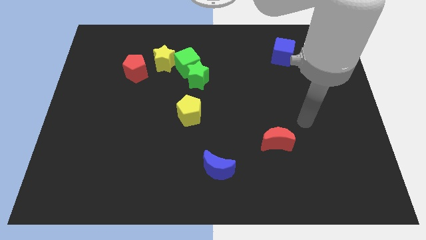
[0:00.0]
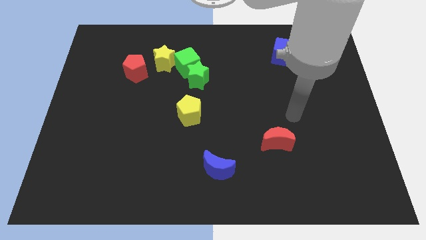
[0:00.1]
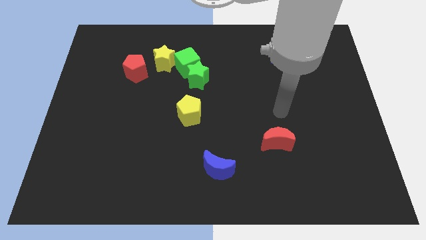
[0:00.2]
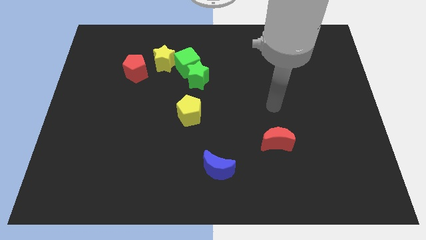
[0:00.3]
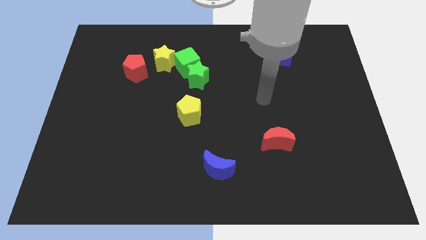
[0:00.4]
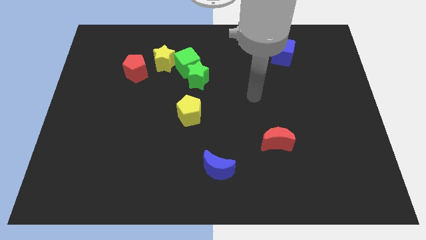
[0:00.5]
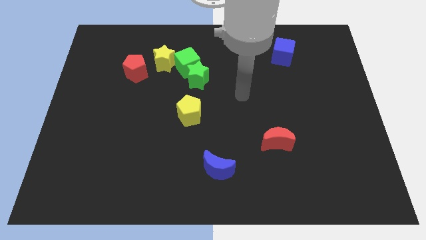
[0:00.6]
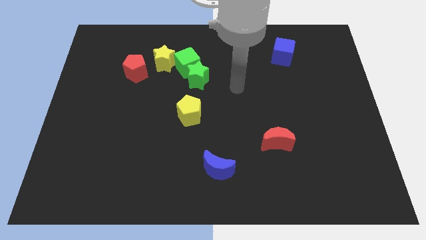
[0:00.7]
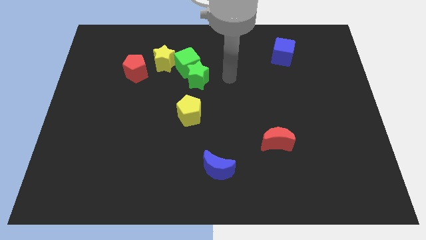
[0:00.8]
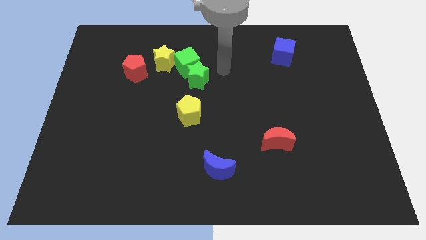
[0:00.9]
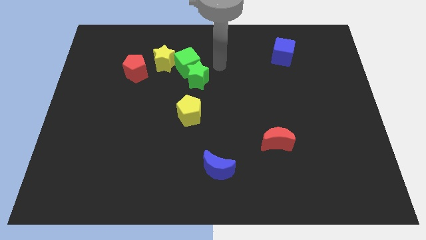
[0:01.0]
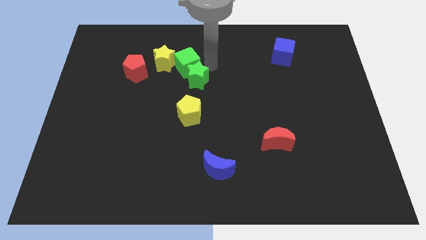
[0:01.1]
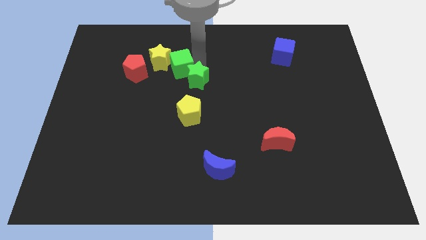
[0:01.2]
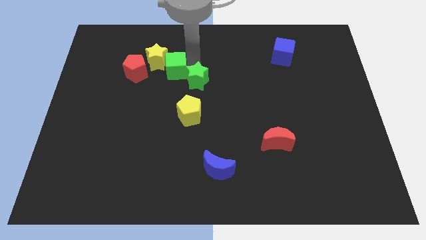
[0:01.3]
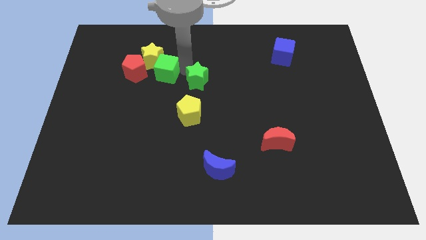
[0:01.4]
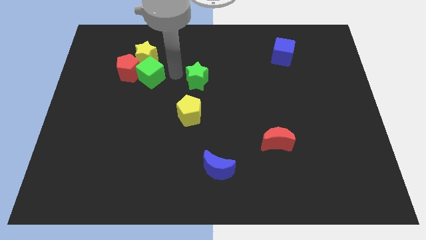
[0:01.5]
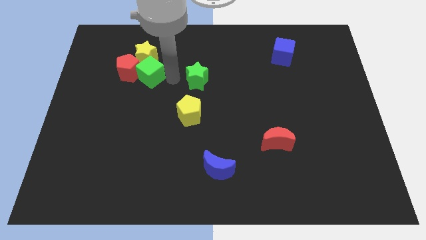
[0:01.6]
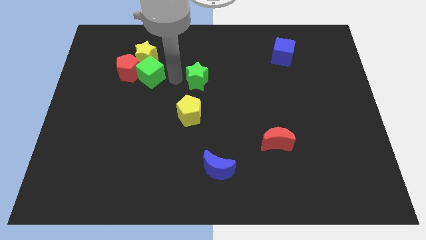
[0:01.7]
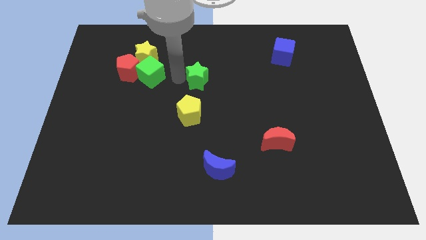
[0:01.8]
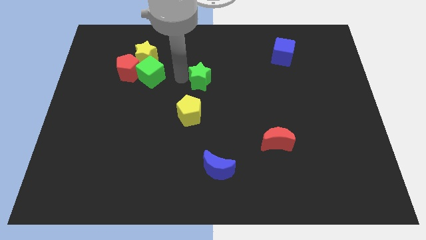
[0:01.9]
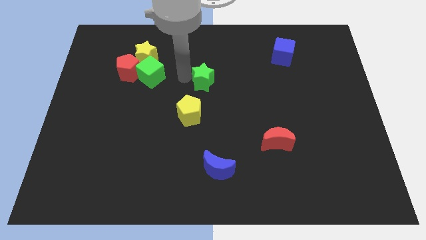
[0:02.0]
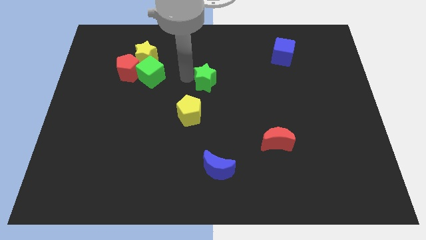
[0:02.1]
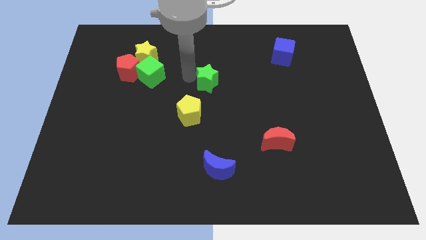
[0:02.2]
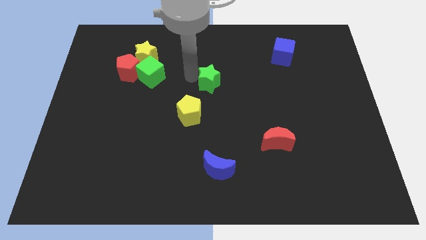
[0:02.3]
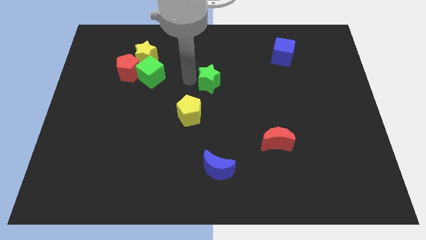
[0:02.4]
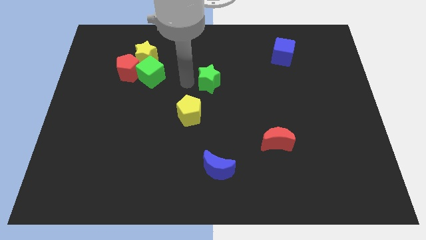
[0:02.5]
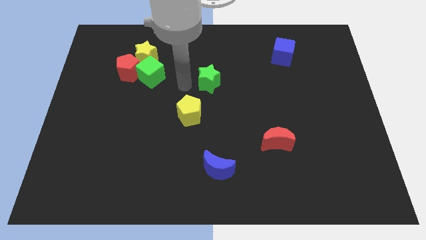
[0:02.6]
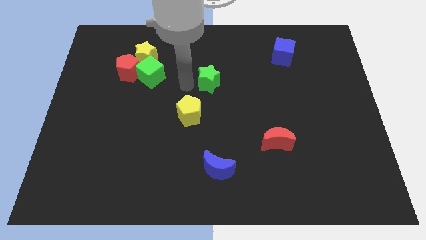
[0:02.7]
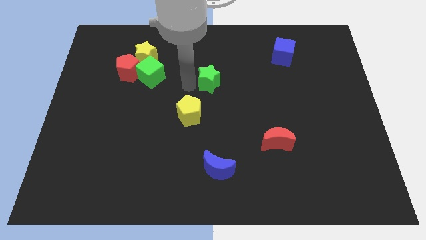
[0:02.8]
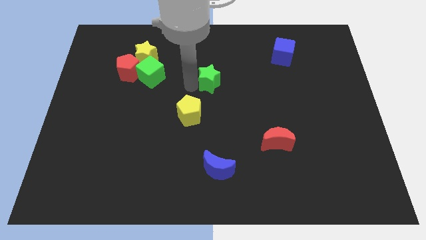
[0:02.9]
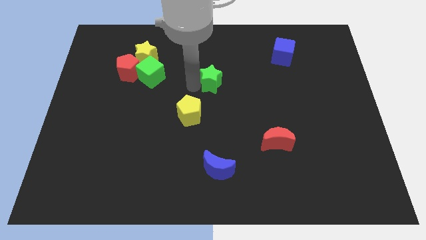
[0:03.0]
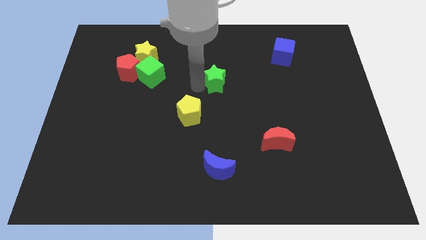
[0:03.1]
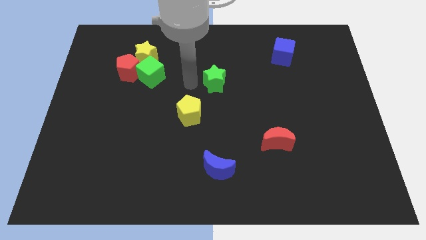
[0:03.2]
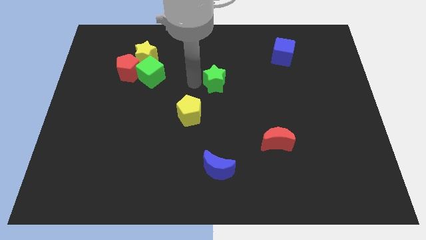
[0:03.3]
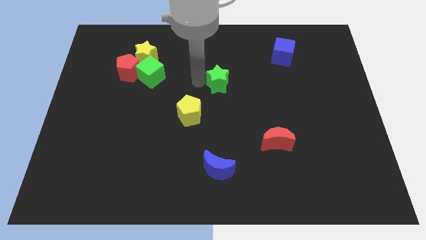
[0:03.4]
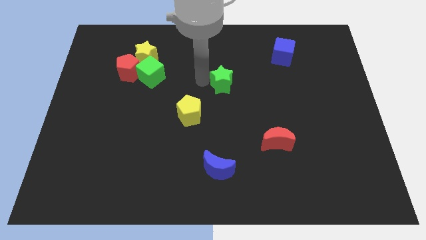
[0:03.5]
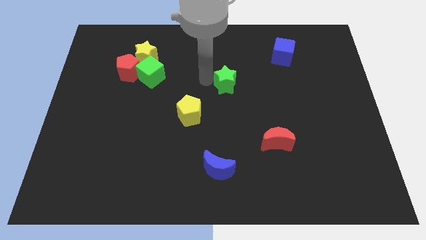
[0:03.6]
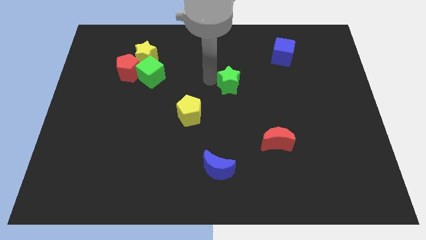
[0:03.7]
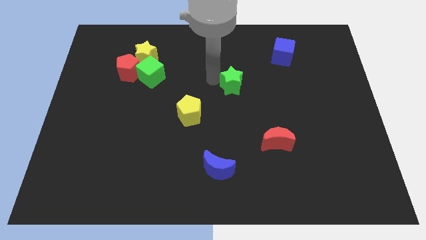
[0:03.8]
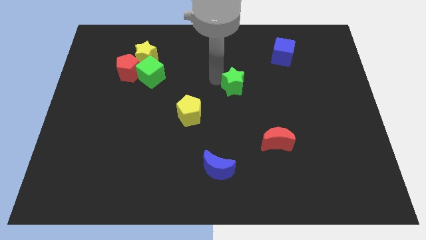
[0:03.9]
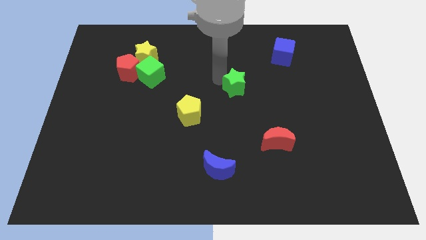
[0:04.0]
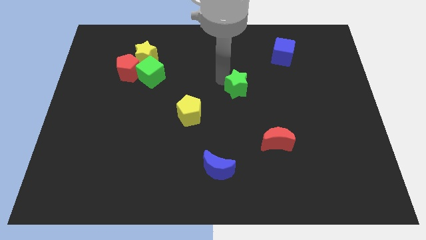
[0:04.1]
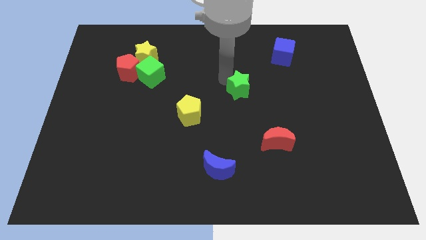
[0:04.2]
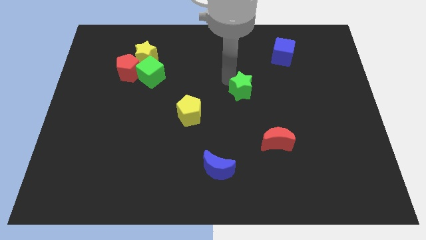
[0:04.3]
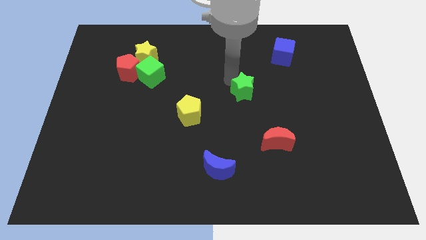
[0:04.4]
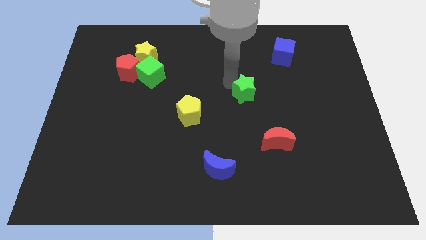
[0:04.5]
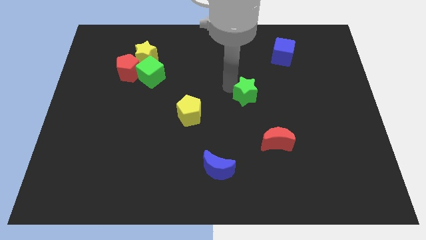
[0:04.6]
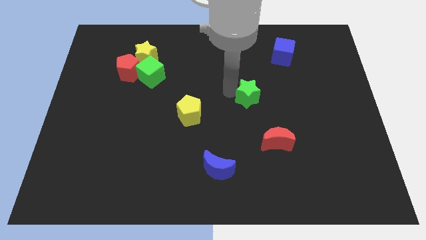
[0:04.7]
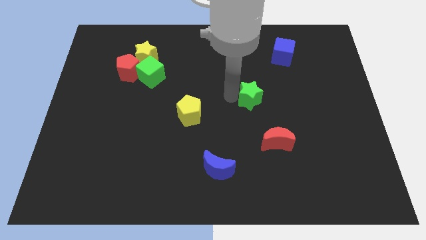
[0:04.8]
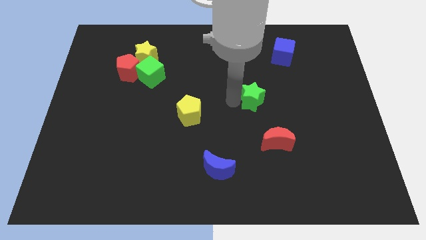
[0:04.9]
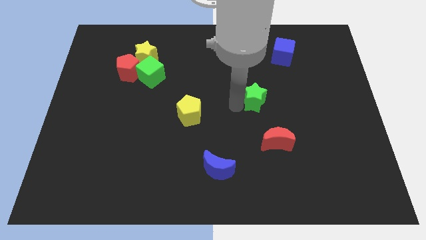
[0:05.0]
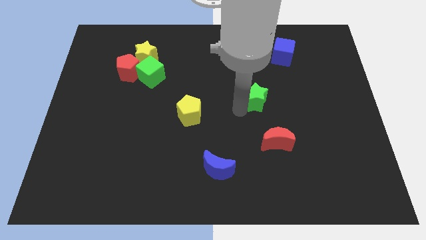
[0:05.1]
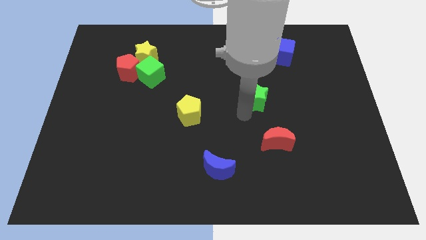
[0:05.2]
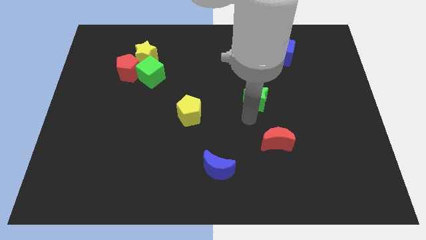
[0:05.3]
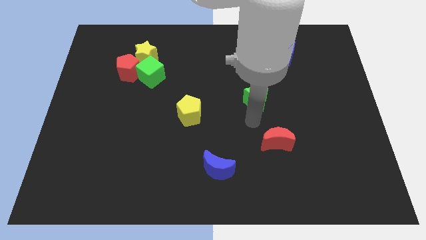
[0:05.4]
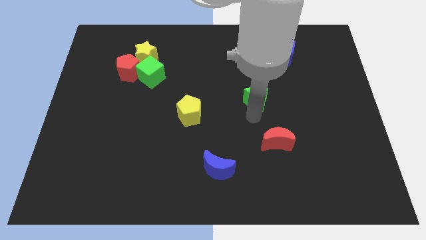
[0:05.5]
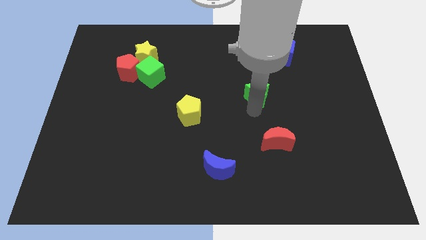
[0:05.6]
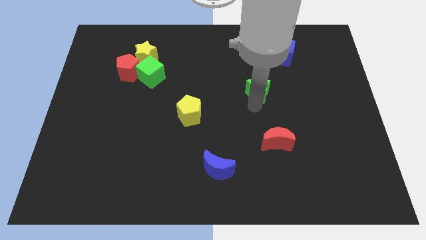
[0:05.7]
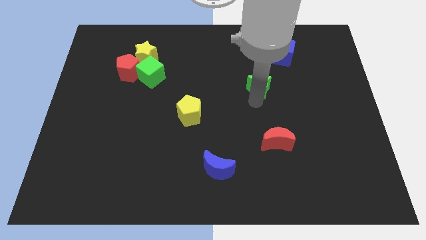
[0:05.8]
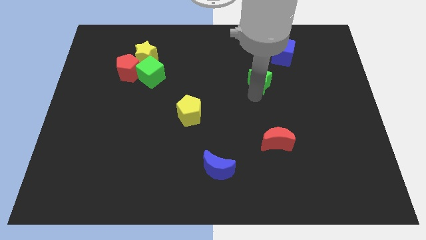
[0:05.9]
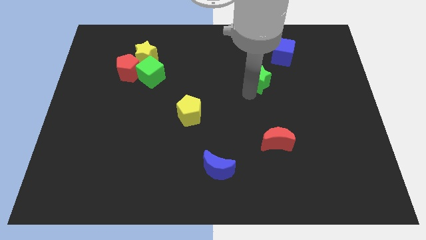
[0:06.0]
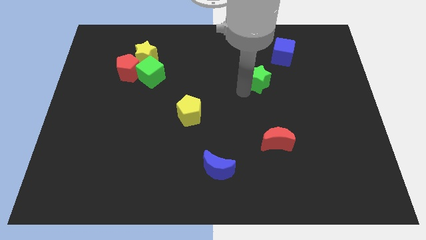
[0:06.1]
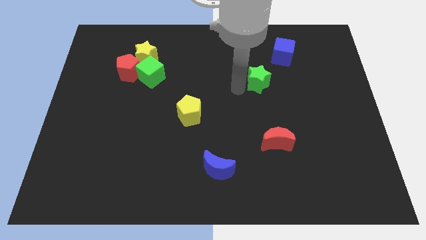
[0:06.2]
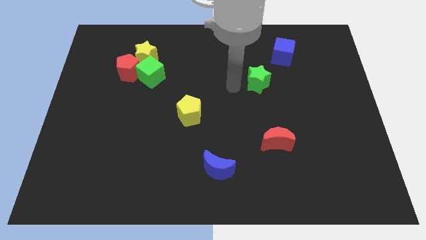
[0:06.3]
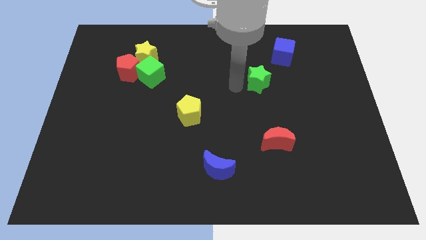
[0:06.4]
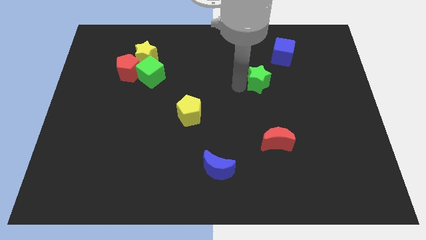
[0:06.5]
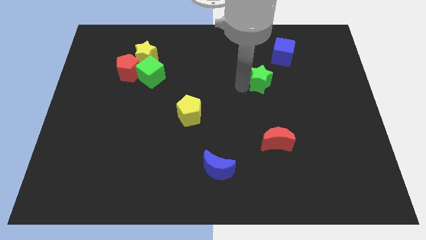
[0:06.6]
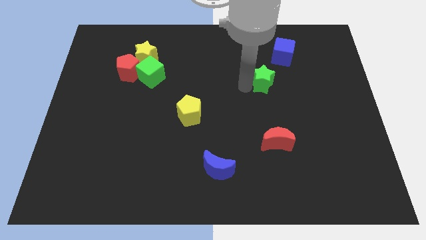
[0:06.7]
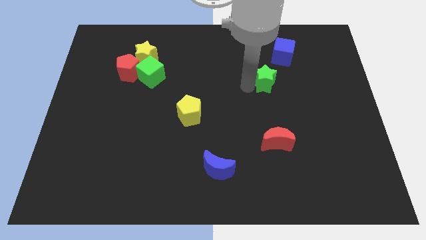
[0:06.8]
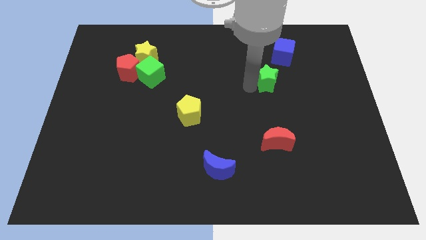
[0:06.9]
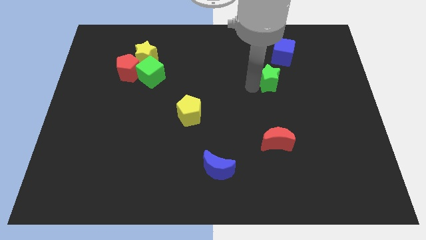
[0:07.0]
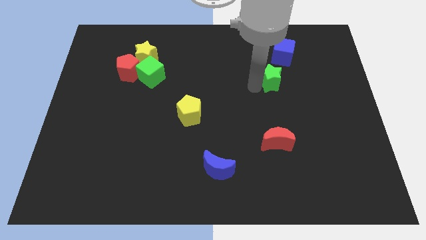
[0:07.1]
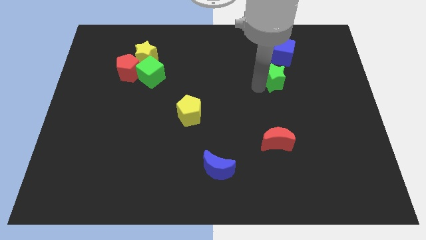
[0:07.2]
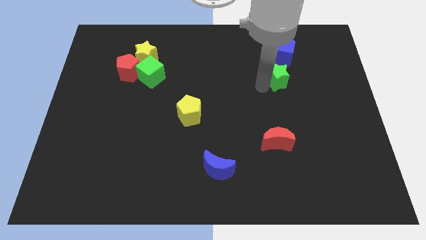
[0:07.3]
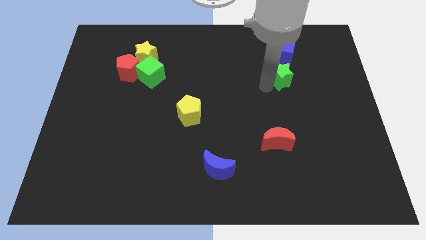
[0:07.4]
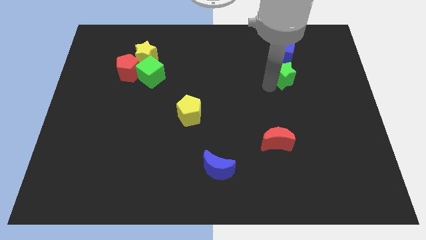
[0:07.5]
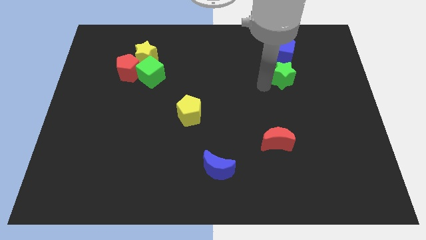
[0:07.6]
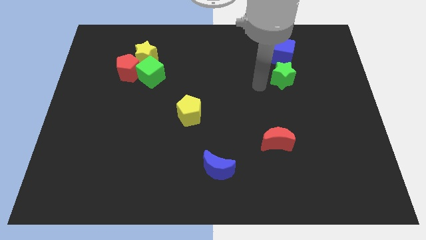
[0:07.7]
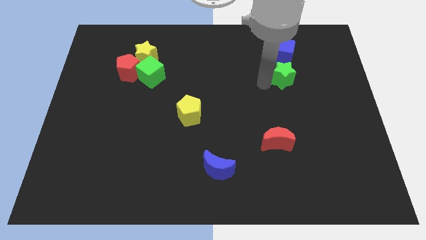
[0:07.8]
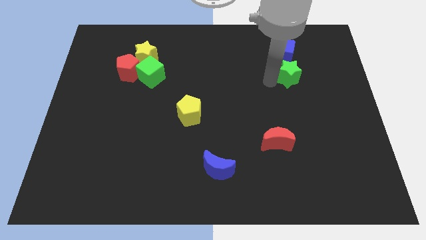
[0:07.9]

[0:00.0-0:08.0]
put the green star to the bottom right side of the blue cube
